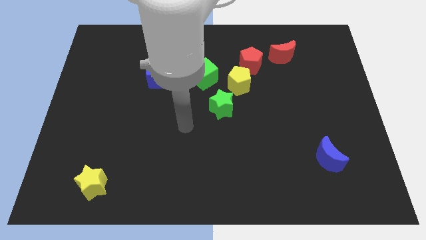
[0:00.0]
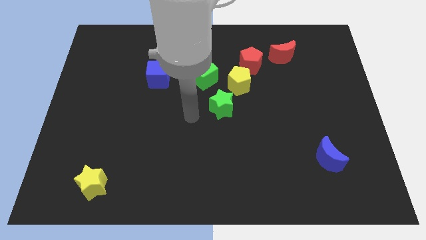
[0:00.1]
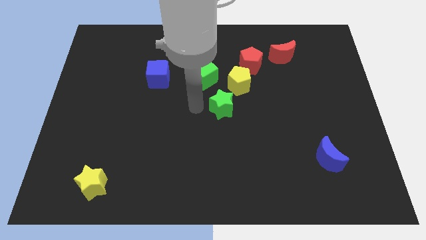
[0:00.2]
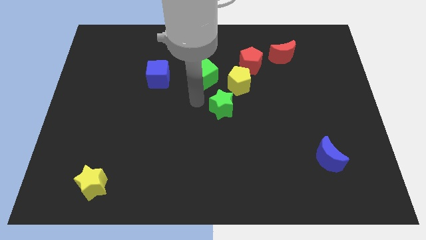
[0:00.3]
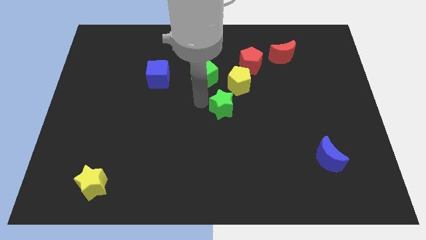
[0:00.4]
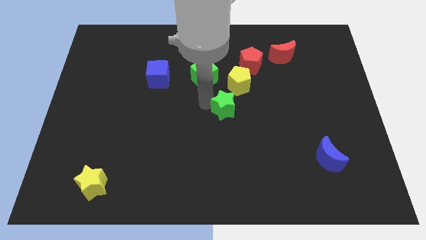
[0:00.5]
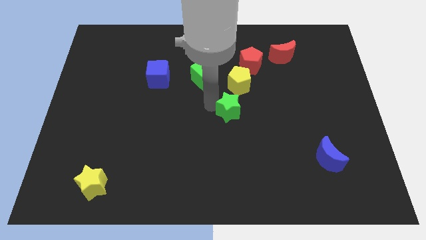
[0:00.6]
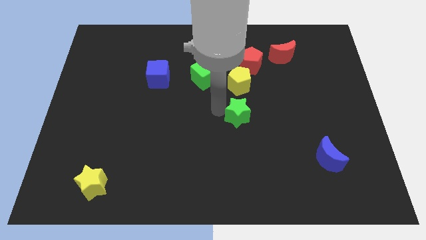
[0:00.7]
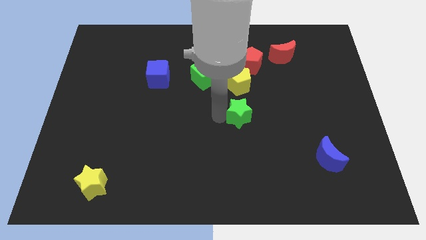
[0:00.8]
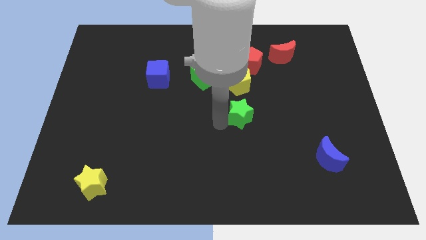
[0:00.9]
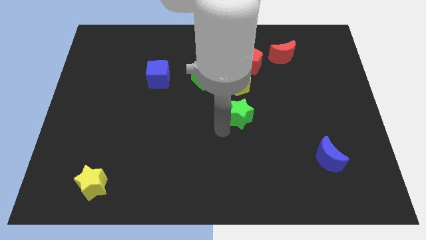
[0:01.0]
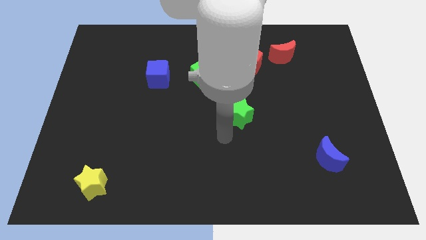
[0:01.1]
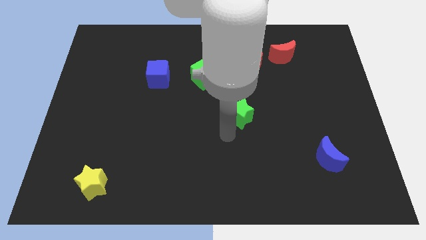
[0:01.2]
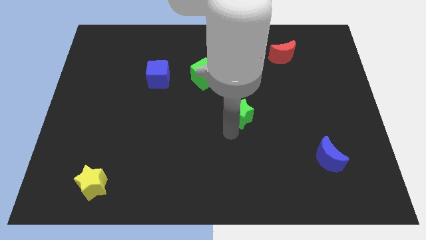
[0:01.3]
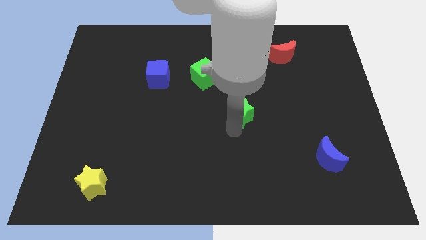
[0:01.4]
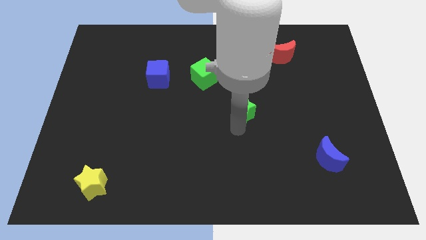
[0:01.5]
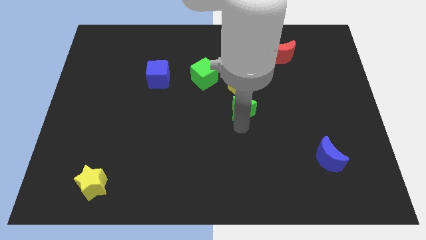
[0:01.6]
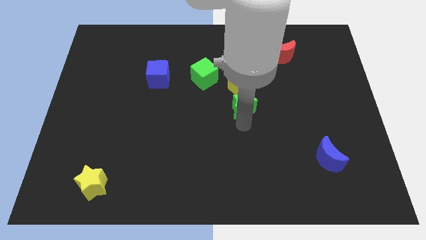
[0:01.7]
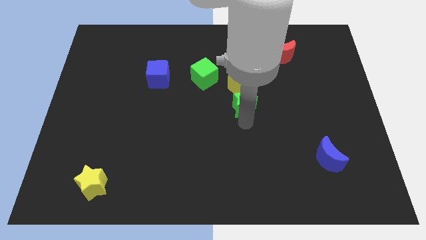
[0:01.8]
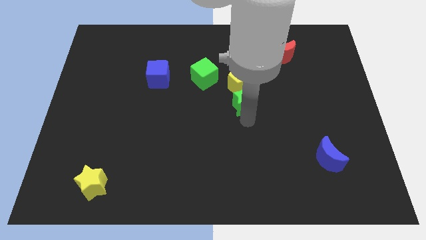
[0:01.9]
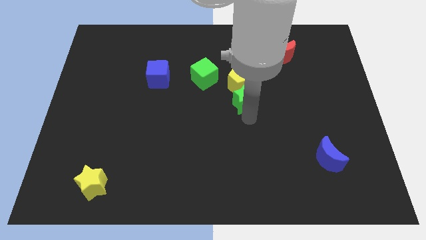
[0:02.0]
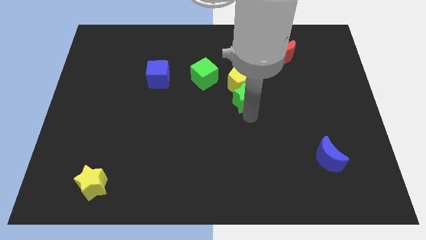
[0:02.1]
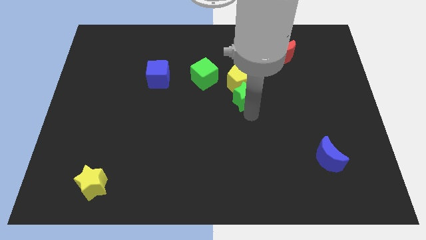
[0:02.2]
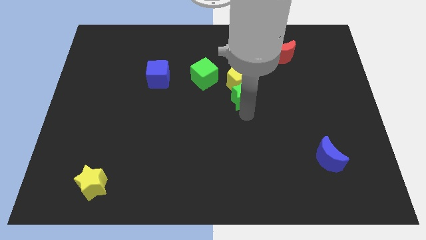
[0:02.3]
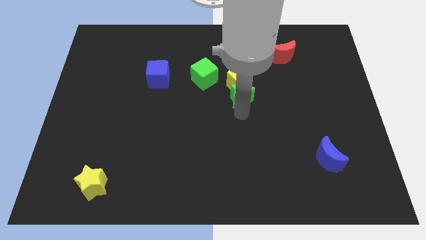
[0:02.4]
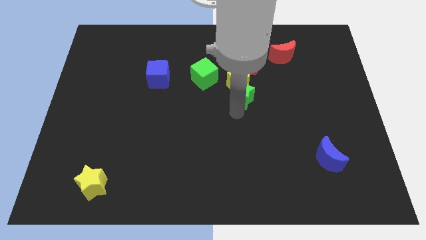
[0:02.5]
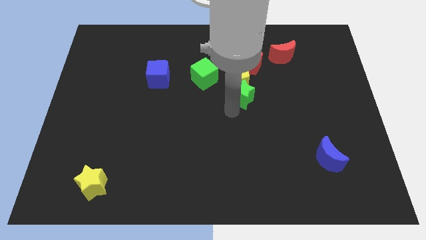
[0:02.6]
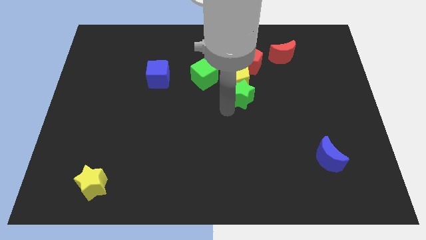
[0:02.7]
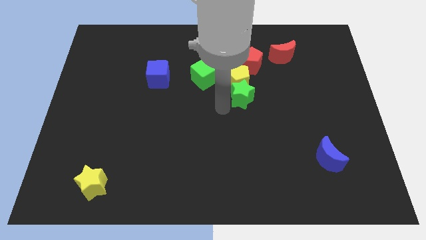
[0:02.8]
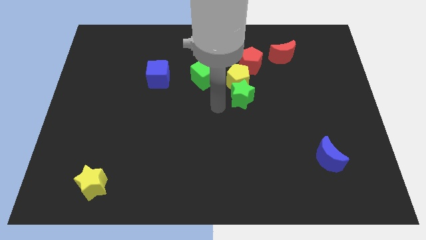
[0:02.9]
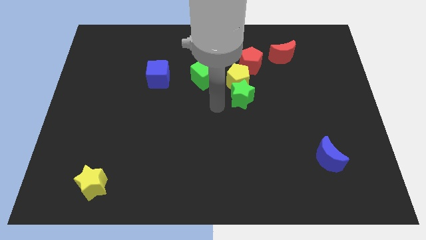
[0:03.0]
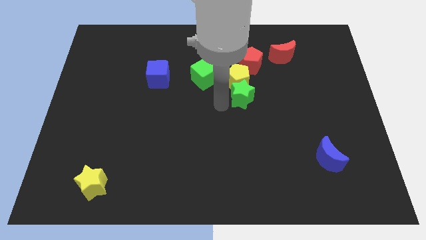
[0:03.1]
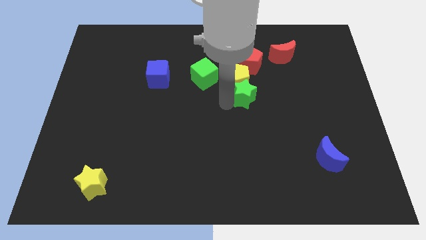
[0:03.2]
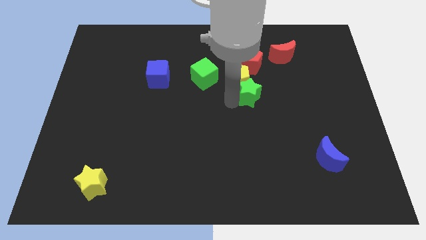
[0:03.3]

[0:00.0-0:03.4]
slide the green star slightly upwards and right diagonally

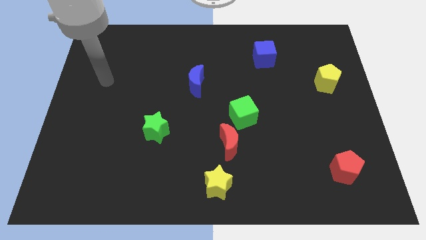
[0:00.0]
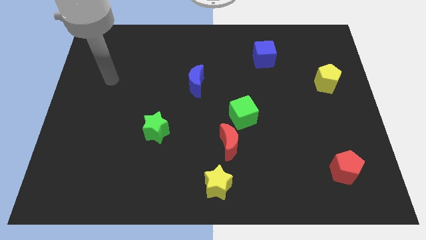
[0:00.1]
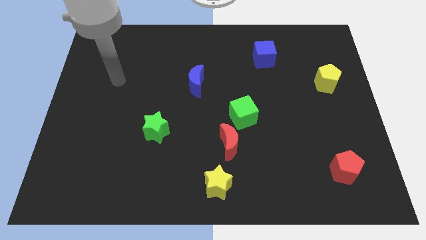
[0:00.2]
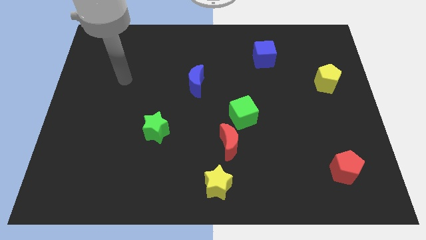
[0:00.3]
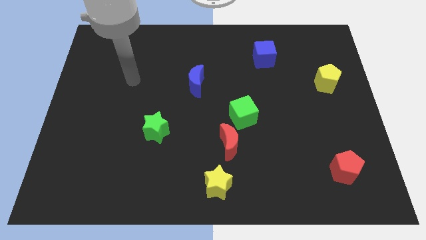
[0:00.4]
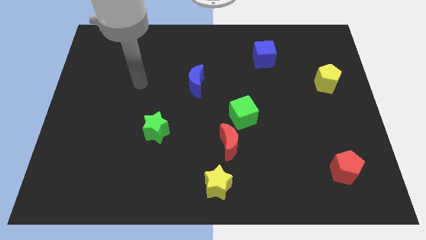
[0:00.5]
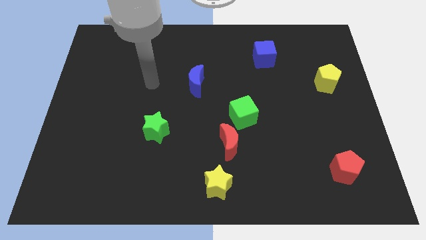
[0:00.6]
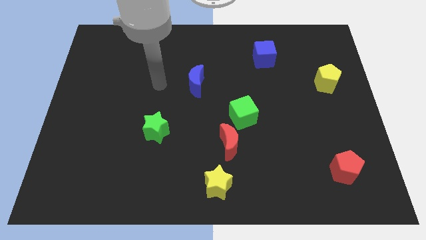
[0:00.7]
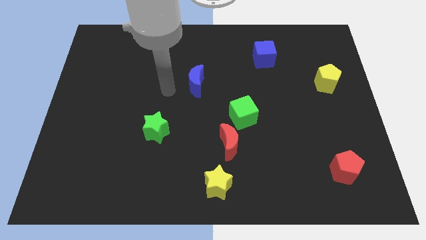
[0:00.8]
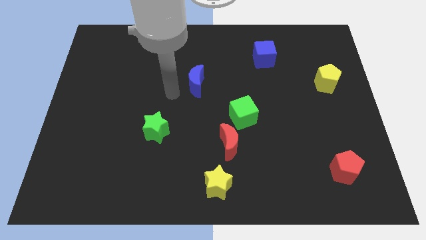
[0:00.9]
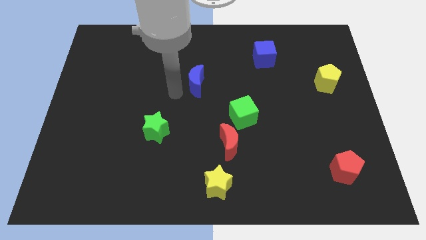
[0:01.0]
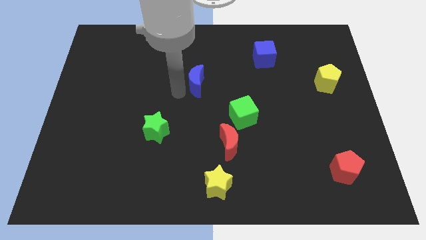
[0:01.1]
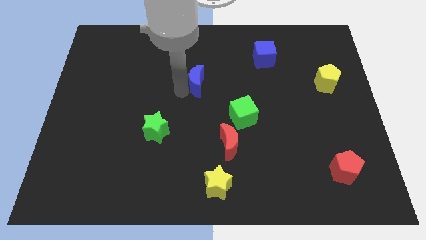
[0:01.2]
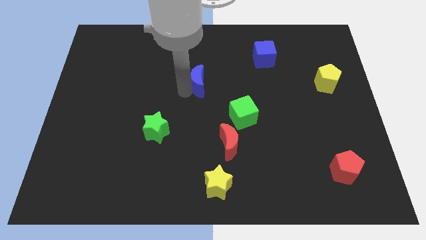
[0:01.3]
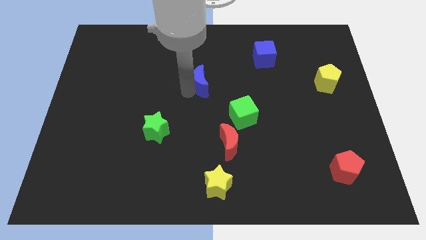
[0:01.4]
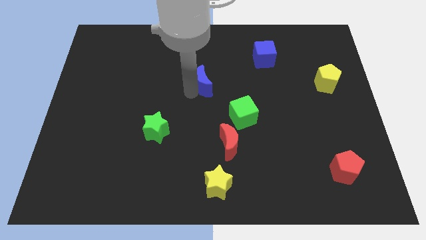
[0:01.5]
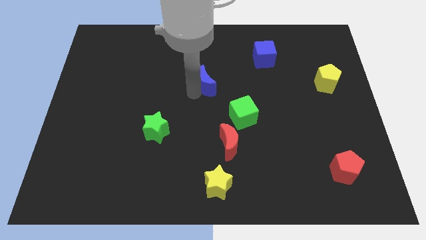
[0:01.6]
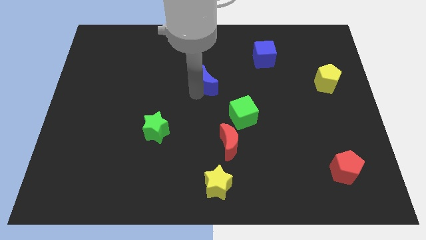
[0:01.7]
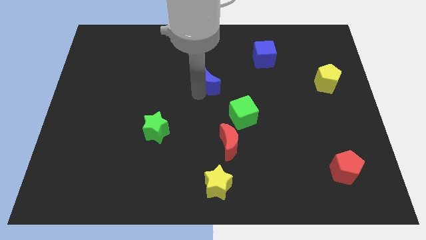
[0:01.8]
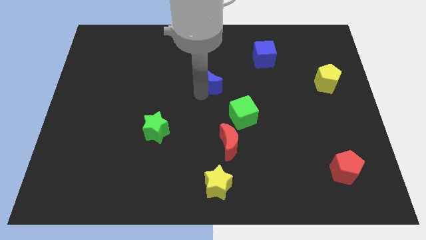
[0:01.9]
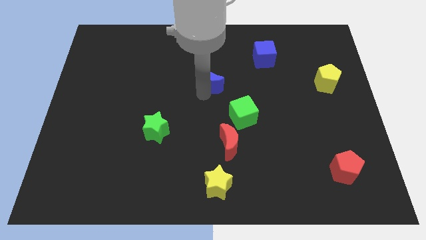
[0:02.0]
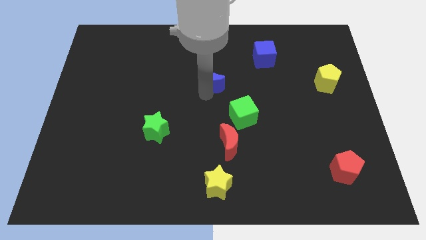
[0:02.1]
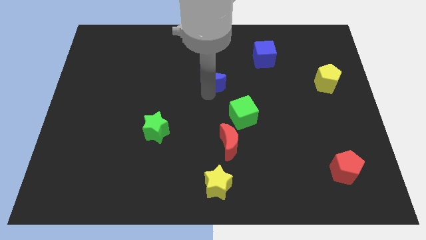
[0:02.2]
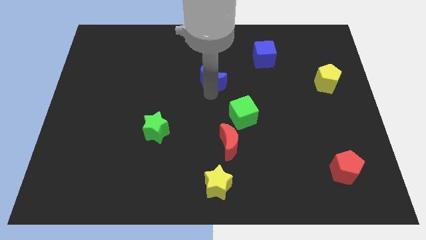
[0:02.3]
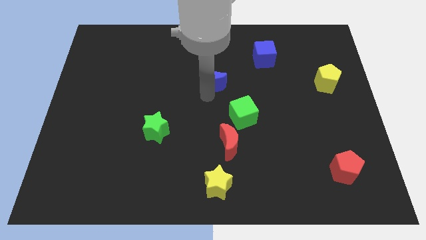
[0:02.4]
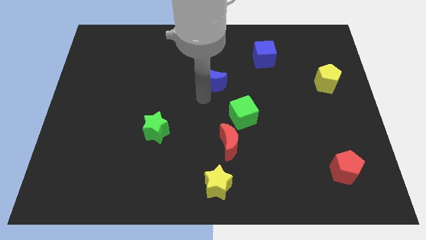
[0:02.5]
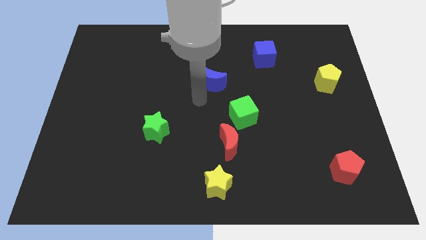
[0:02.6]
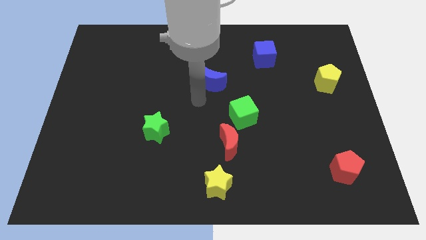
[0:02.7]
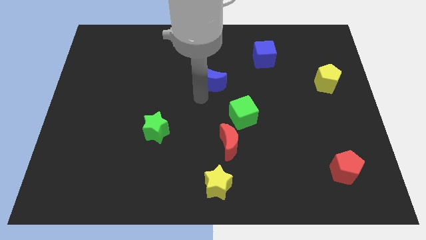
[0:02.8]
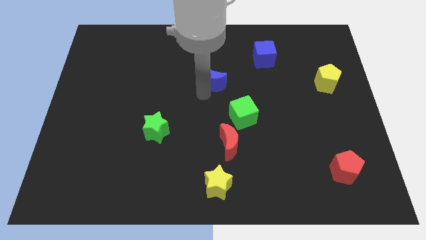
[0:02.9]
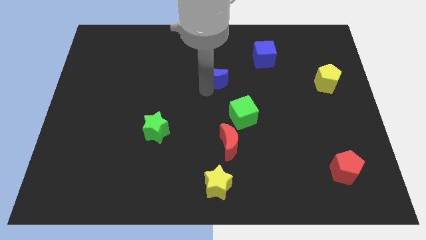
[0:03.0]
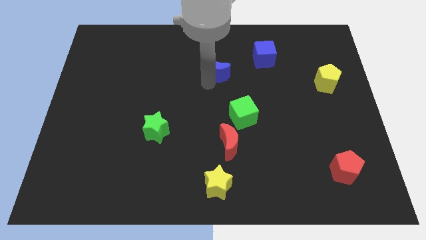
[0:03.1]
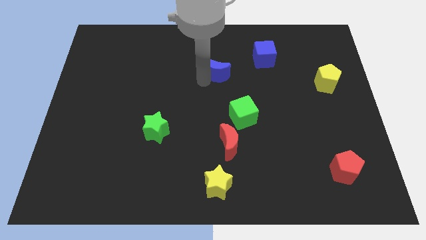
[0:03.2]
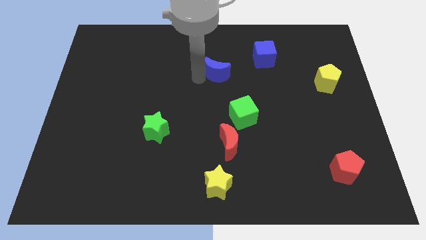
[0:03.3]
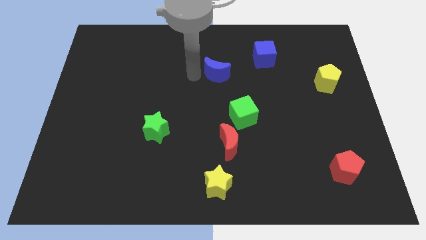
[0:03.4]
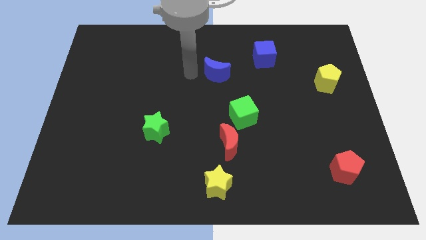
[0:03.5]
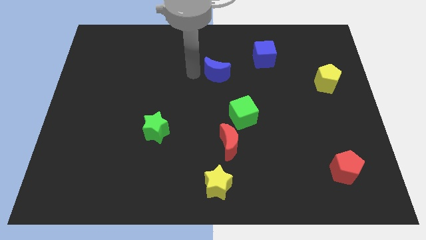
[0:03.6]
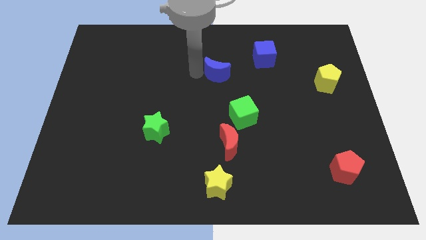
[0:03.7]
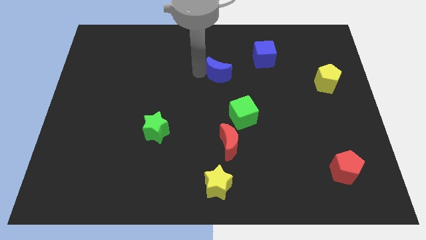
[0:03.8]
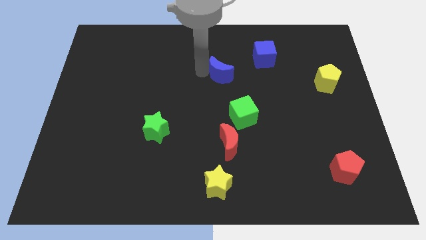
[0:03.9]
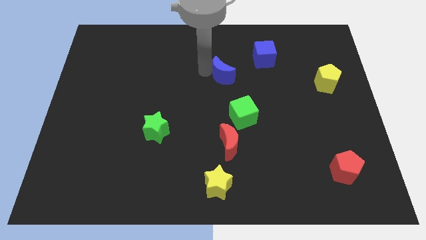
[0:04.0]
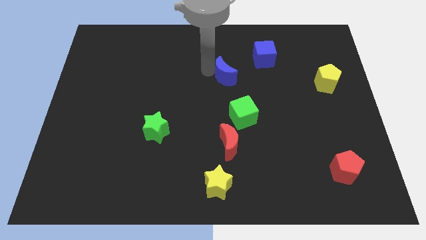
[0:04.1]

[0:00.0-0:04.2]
slightly slide the blue moon to the right

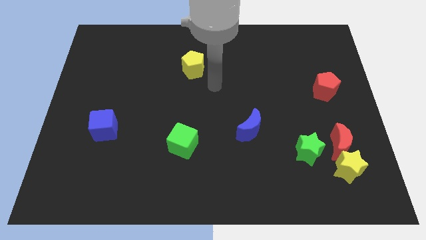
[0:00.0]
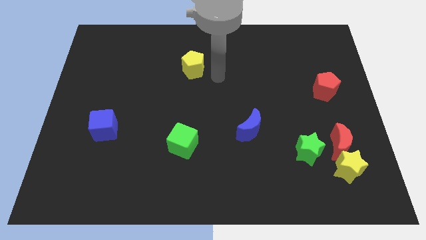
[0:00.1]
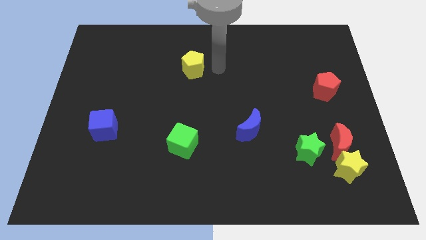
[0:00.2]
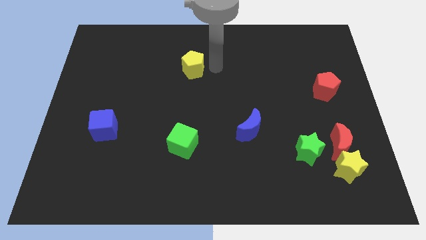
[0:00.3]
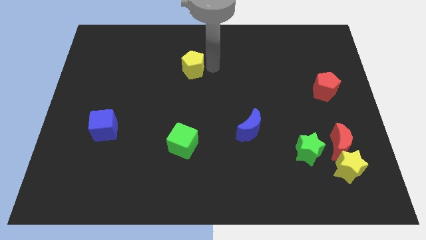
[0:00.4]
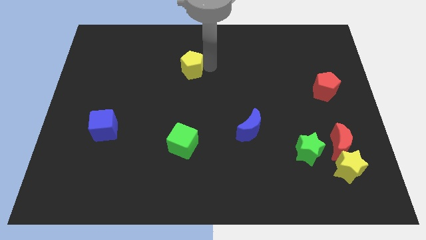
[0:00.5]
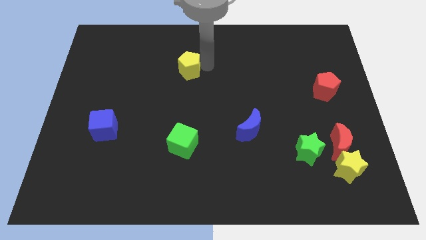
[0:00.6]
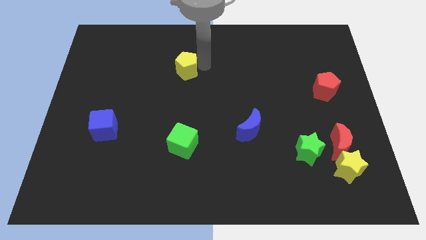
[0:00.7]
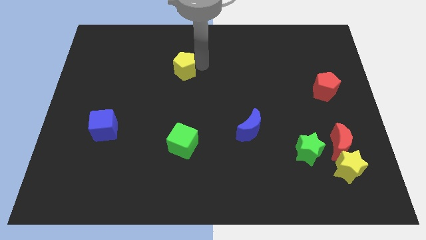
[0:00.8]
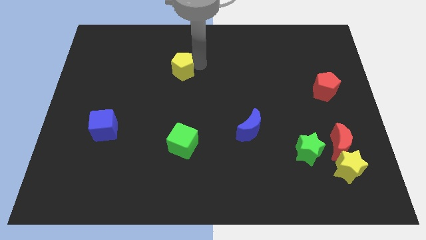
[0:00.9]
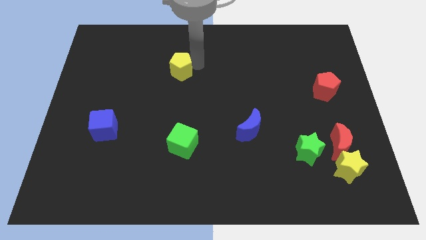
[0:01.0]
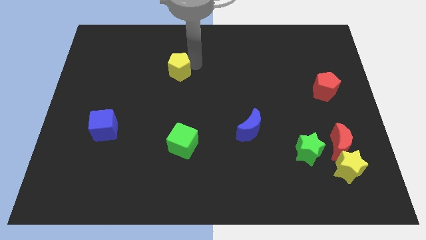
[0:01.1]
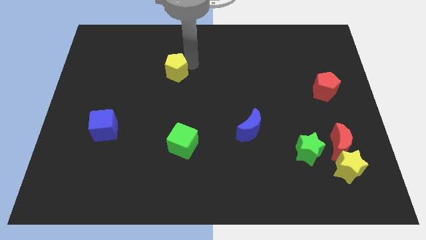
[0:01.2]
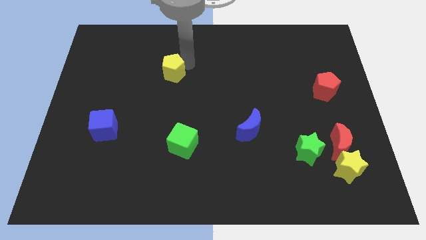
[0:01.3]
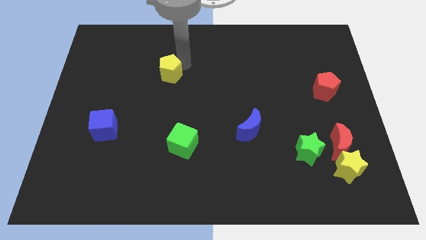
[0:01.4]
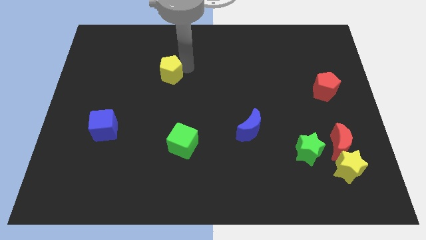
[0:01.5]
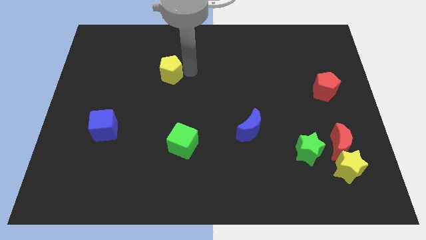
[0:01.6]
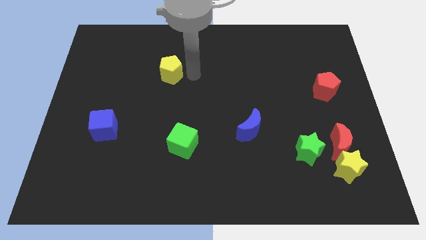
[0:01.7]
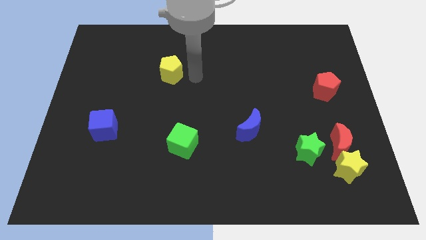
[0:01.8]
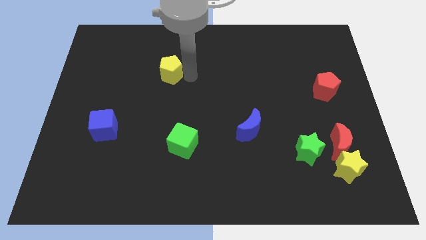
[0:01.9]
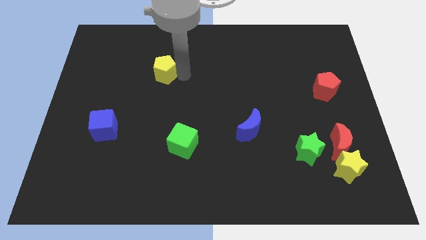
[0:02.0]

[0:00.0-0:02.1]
slightly move the yellow pentagon to the left
